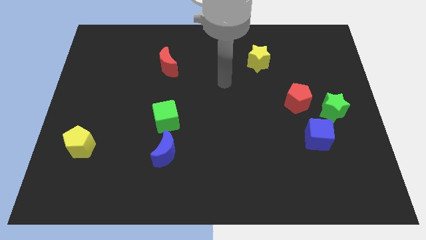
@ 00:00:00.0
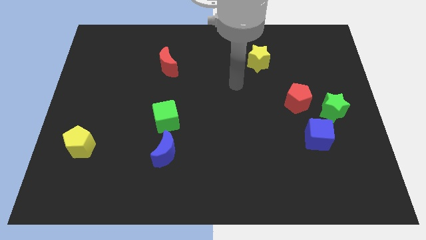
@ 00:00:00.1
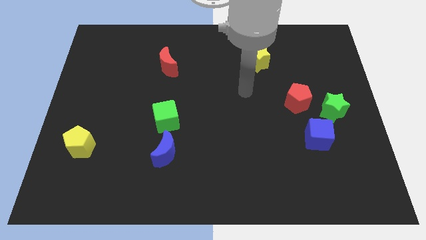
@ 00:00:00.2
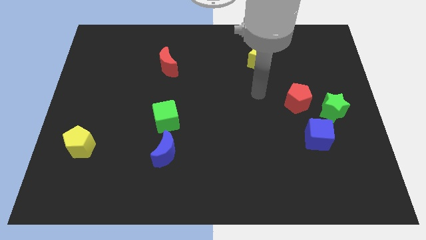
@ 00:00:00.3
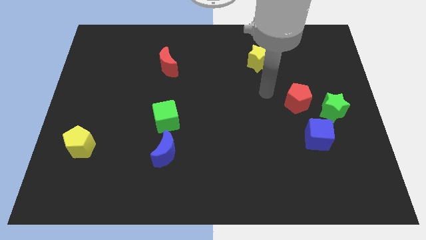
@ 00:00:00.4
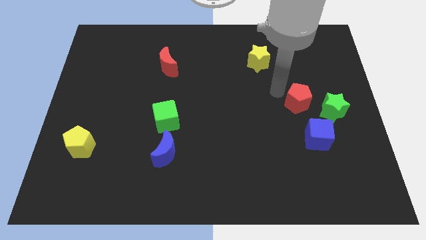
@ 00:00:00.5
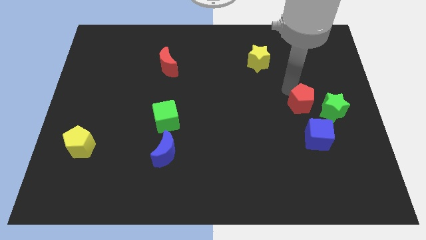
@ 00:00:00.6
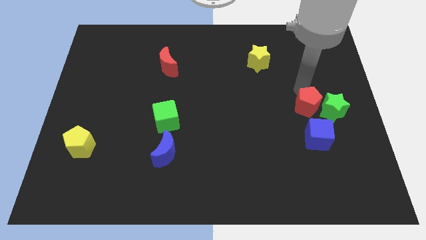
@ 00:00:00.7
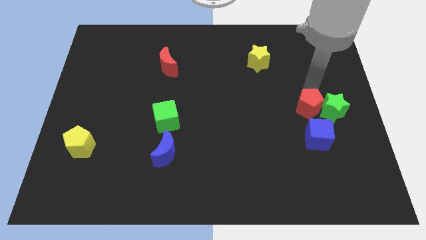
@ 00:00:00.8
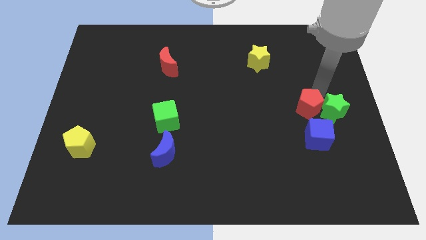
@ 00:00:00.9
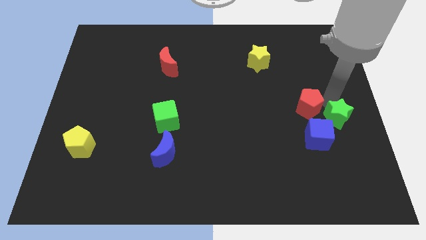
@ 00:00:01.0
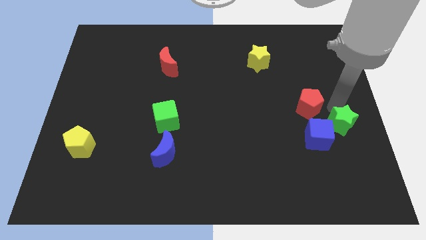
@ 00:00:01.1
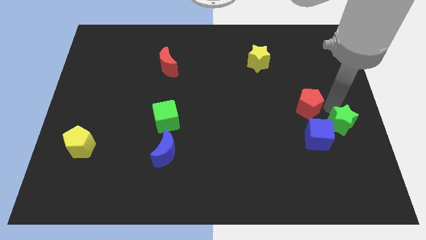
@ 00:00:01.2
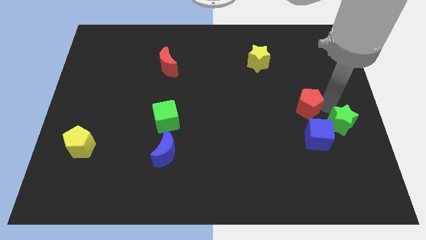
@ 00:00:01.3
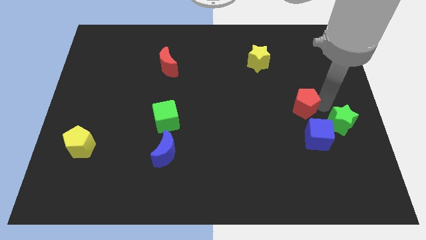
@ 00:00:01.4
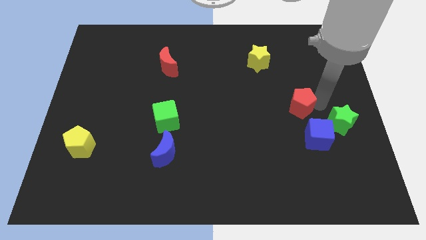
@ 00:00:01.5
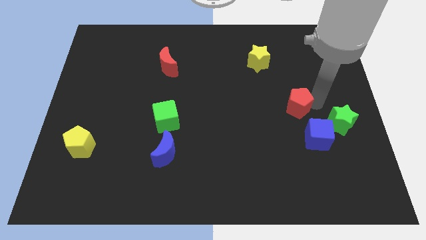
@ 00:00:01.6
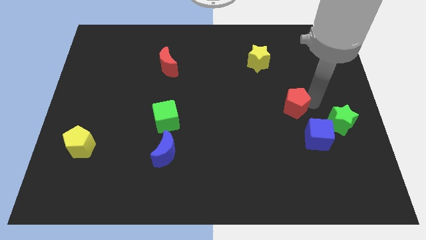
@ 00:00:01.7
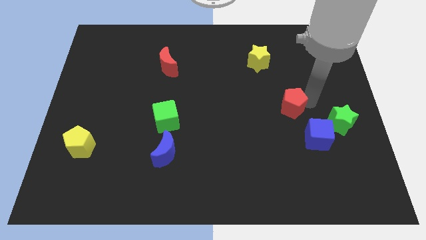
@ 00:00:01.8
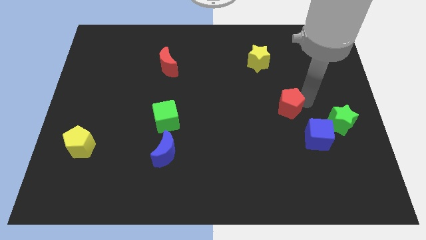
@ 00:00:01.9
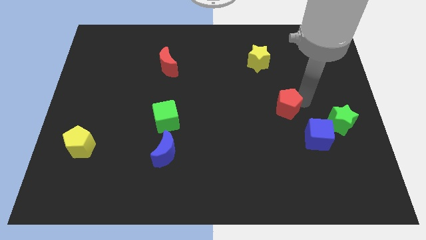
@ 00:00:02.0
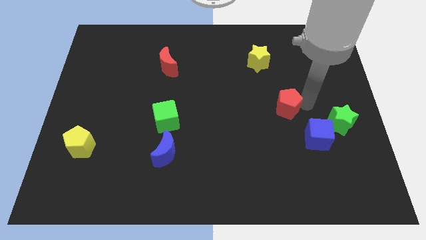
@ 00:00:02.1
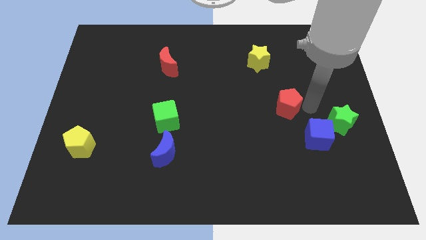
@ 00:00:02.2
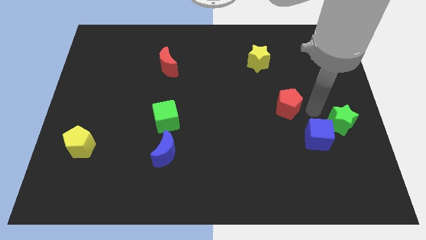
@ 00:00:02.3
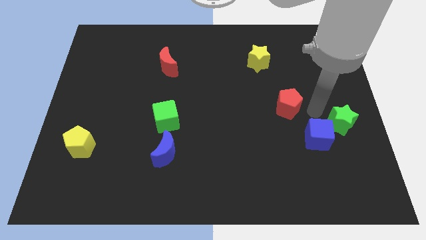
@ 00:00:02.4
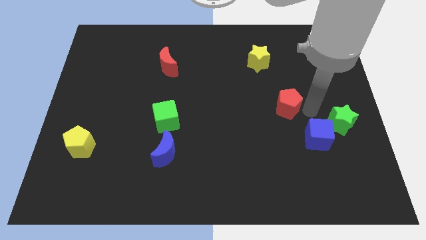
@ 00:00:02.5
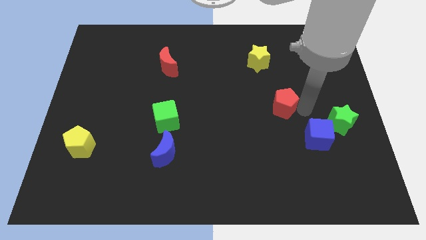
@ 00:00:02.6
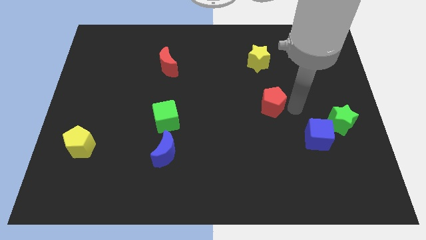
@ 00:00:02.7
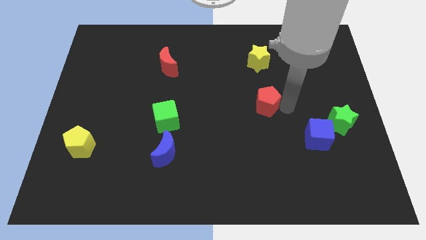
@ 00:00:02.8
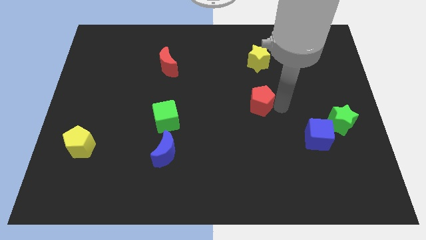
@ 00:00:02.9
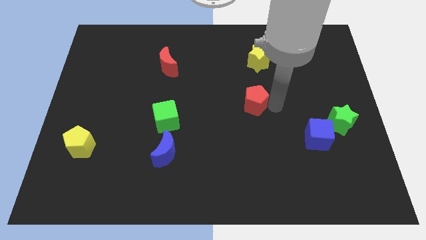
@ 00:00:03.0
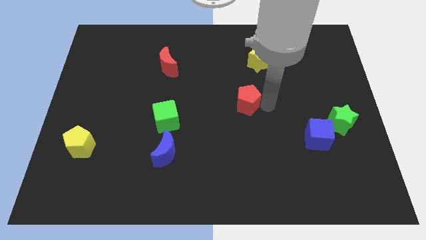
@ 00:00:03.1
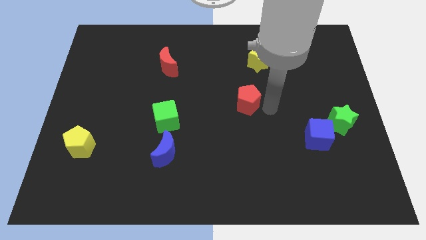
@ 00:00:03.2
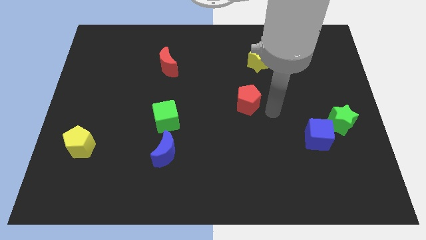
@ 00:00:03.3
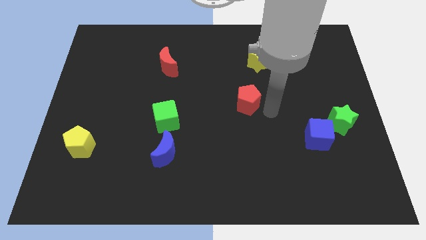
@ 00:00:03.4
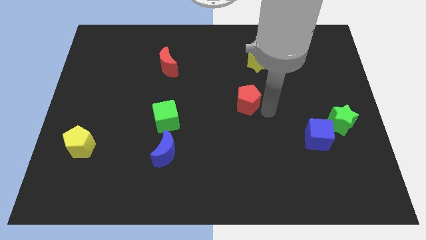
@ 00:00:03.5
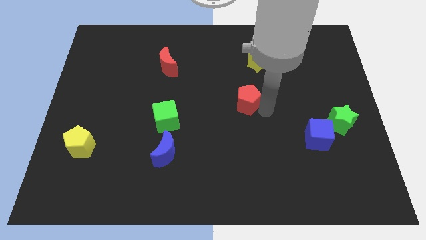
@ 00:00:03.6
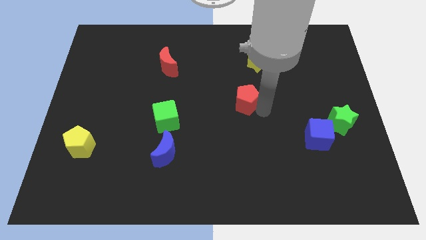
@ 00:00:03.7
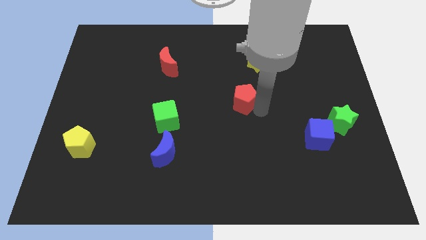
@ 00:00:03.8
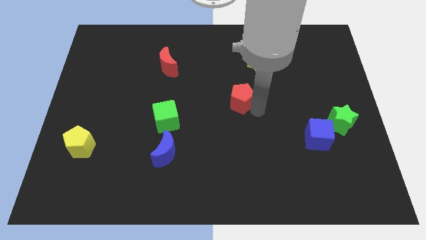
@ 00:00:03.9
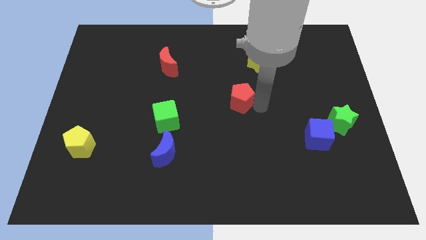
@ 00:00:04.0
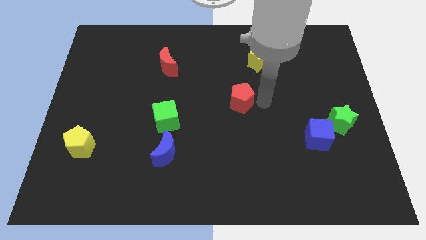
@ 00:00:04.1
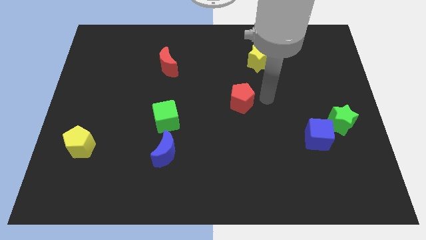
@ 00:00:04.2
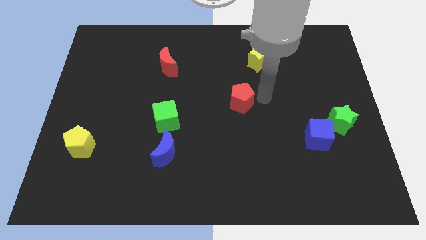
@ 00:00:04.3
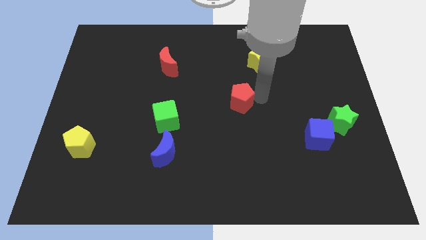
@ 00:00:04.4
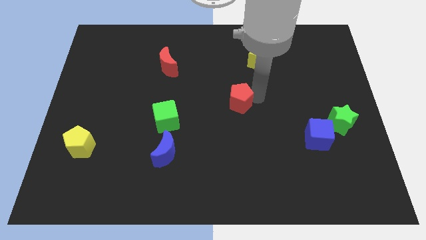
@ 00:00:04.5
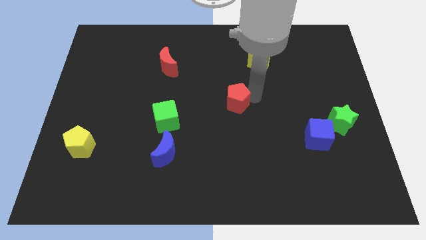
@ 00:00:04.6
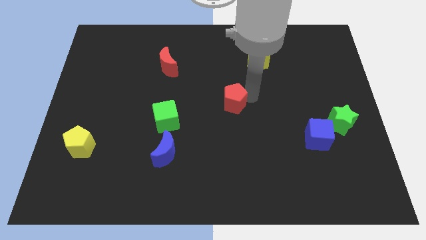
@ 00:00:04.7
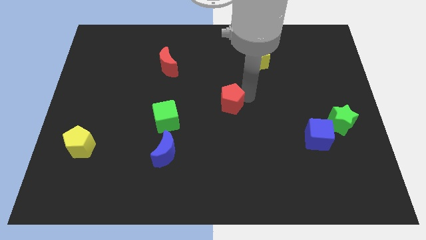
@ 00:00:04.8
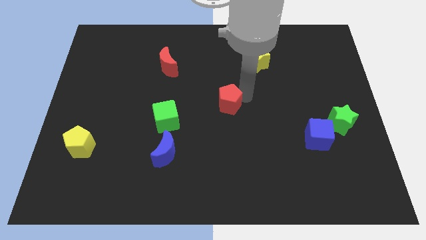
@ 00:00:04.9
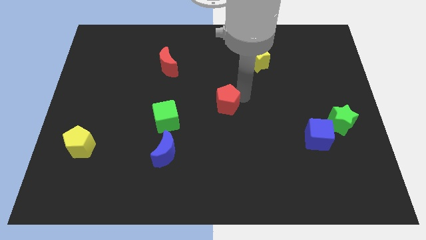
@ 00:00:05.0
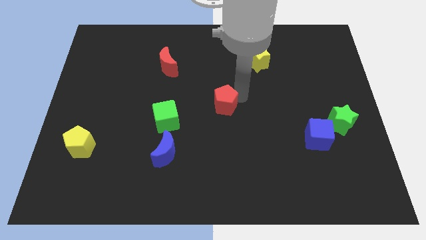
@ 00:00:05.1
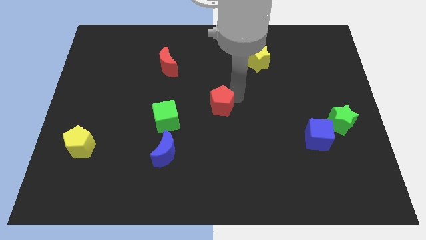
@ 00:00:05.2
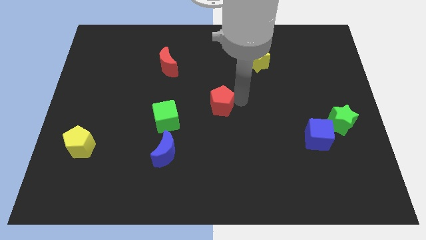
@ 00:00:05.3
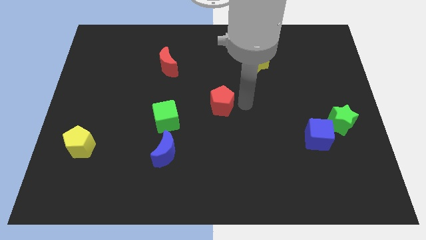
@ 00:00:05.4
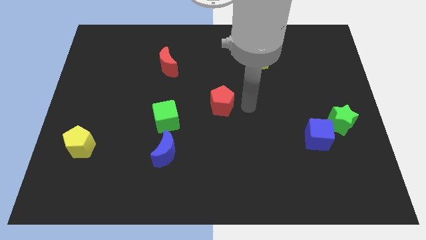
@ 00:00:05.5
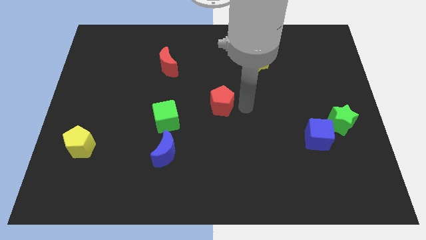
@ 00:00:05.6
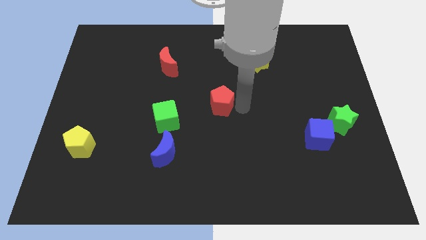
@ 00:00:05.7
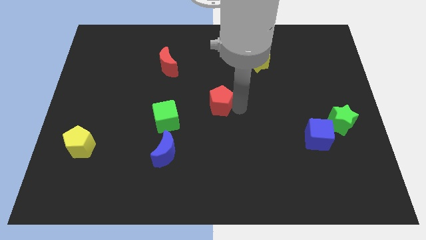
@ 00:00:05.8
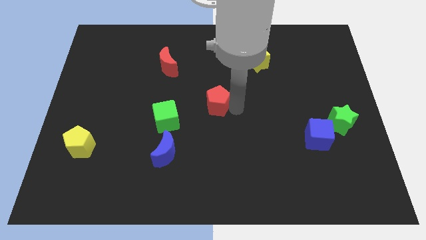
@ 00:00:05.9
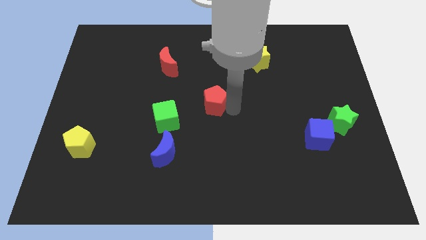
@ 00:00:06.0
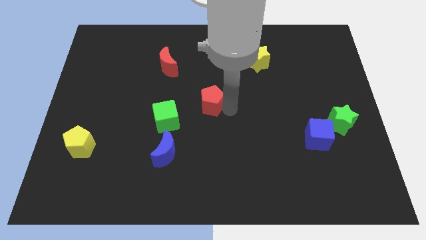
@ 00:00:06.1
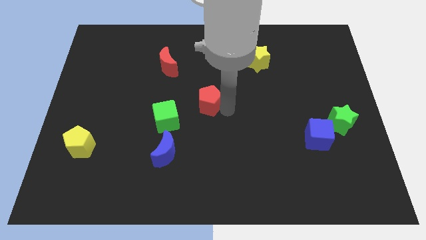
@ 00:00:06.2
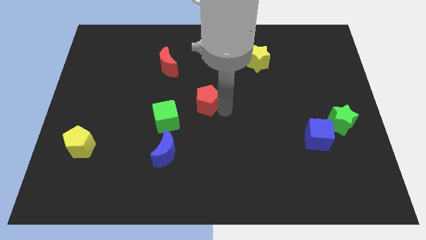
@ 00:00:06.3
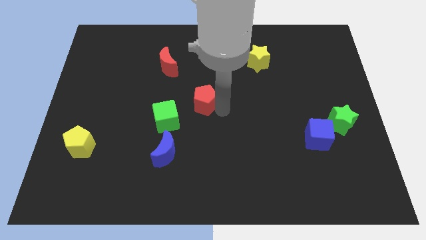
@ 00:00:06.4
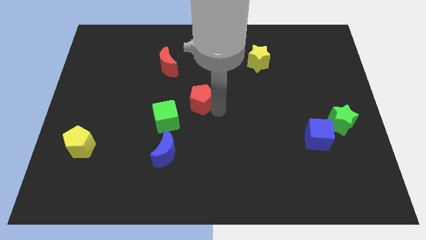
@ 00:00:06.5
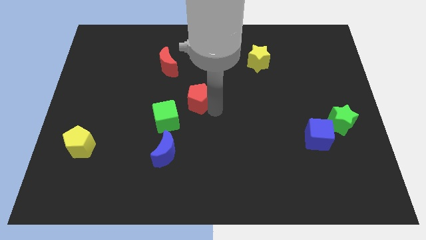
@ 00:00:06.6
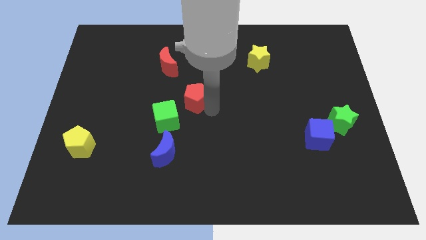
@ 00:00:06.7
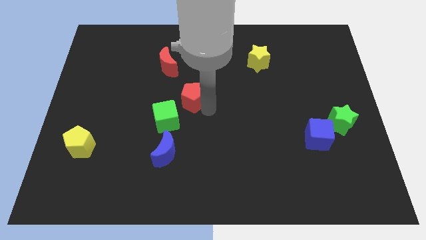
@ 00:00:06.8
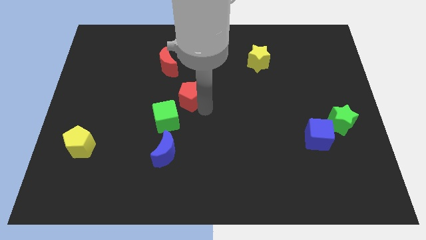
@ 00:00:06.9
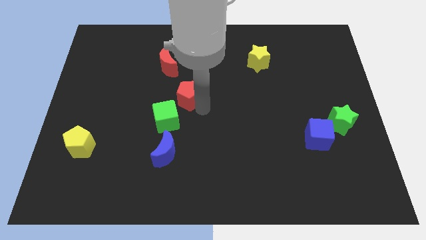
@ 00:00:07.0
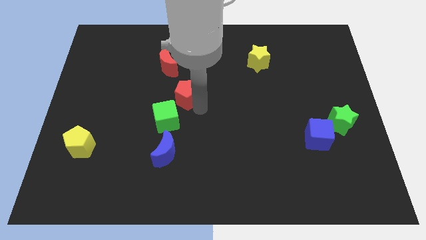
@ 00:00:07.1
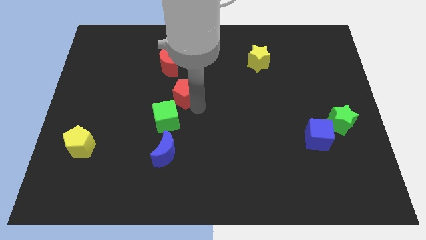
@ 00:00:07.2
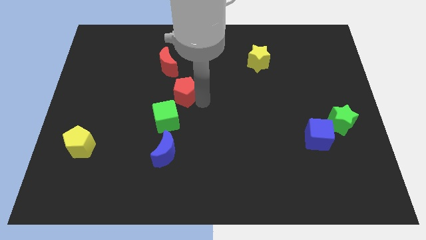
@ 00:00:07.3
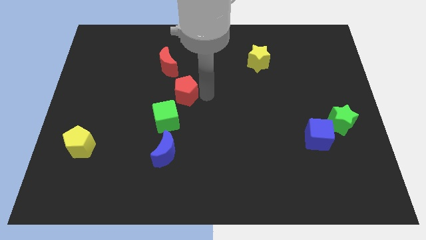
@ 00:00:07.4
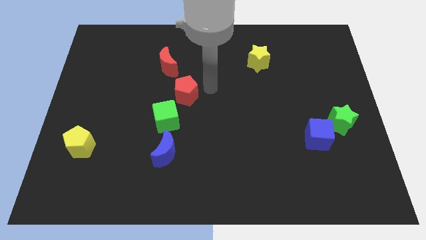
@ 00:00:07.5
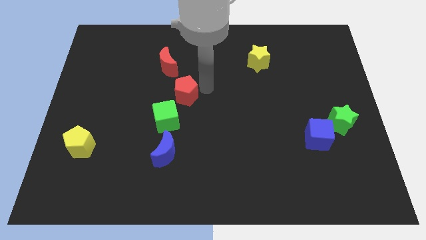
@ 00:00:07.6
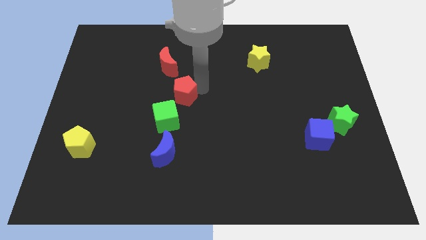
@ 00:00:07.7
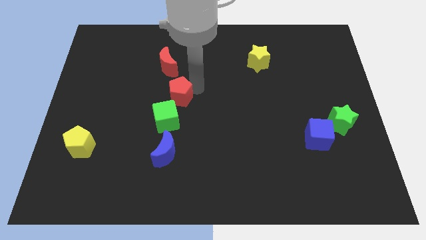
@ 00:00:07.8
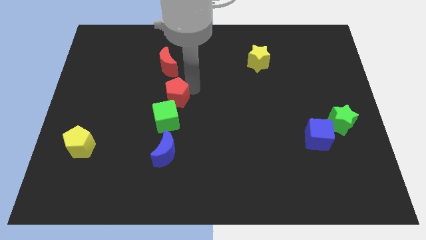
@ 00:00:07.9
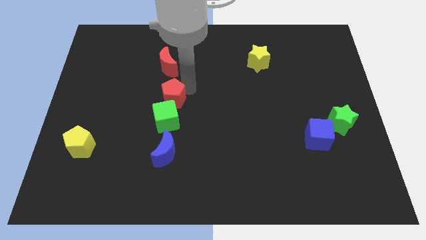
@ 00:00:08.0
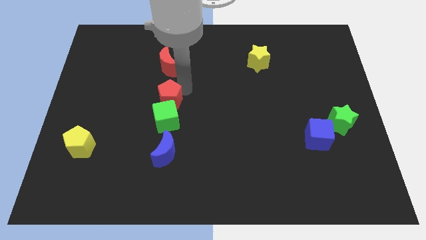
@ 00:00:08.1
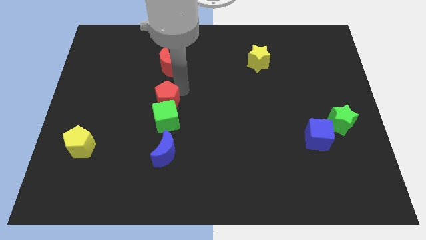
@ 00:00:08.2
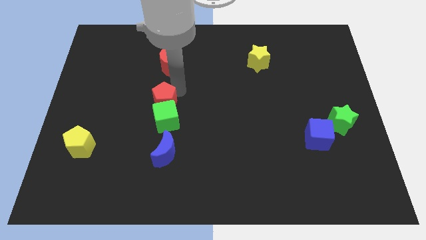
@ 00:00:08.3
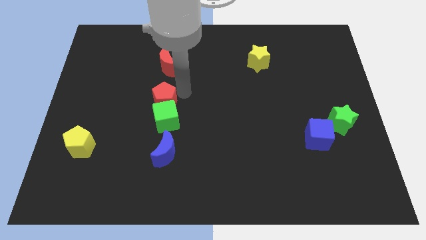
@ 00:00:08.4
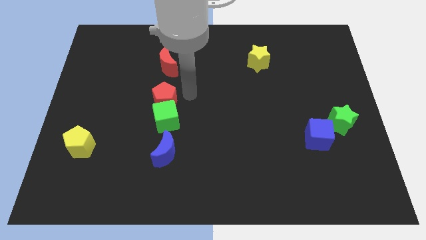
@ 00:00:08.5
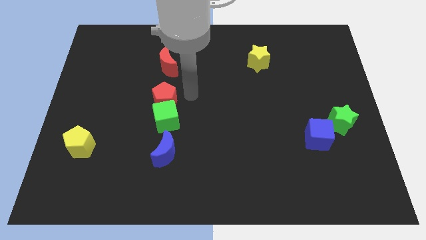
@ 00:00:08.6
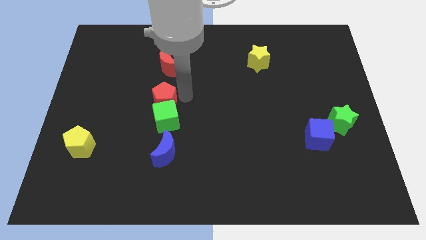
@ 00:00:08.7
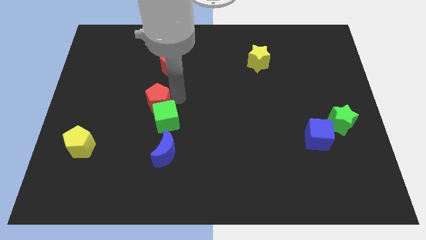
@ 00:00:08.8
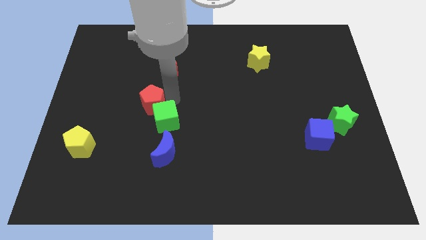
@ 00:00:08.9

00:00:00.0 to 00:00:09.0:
slide the red pentagon just left of the green cube
